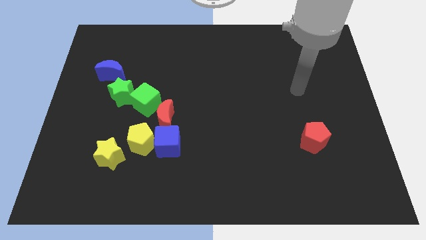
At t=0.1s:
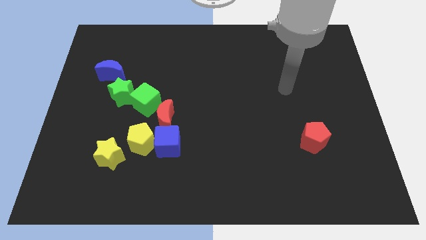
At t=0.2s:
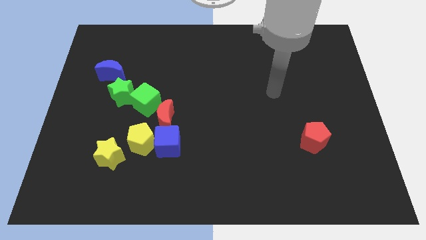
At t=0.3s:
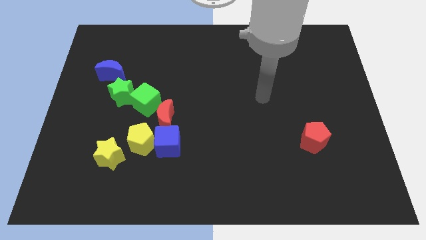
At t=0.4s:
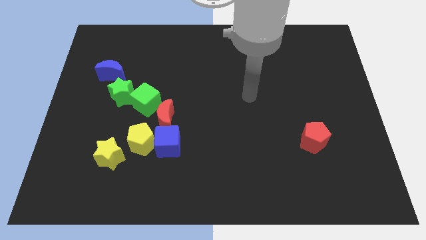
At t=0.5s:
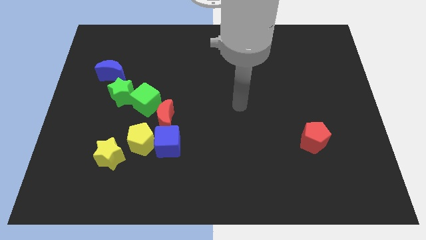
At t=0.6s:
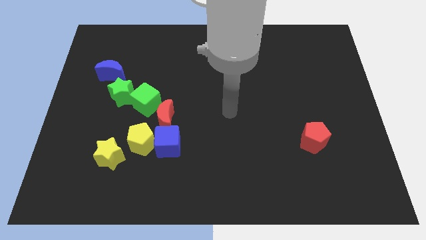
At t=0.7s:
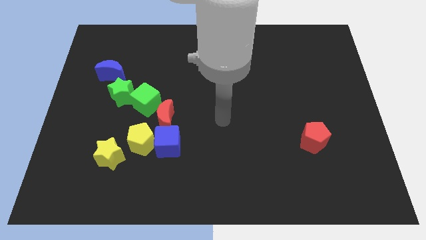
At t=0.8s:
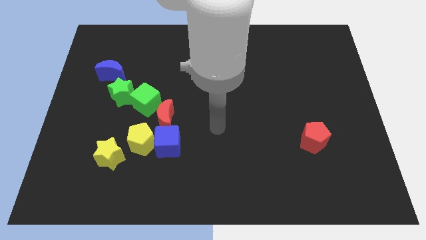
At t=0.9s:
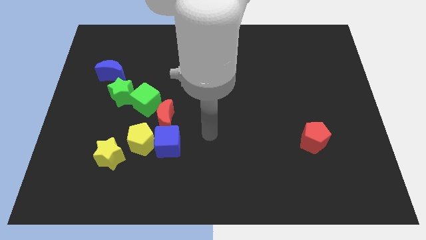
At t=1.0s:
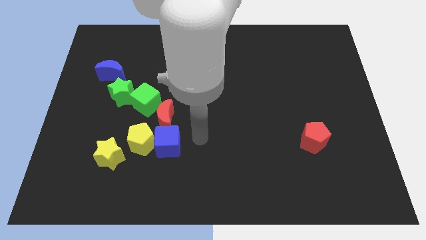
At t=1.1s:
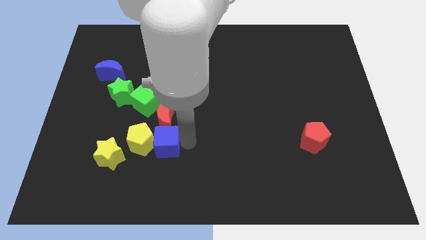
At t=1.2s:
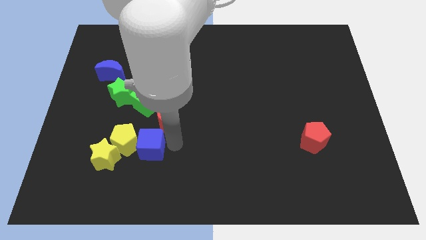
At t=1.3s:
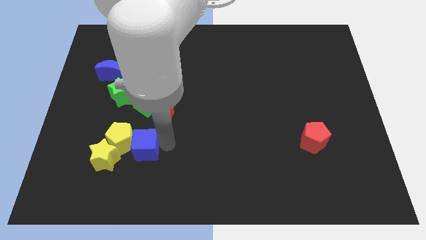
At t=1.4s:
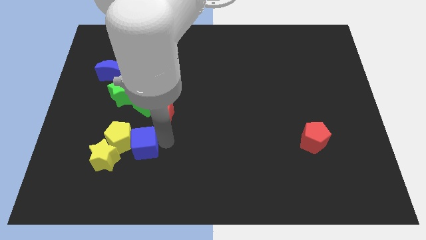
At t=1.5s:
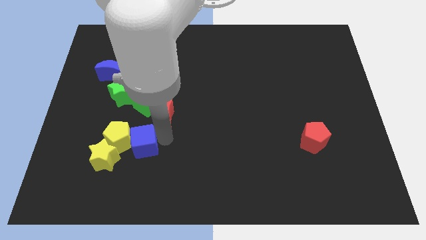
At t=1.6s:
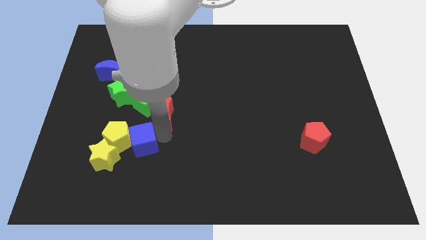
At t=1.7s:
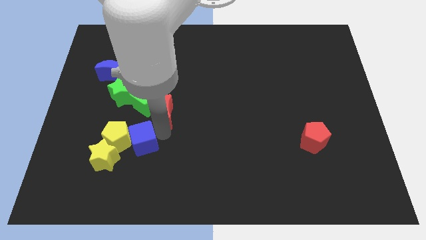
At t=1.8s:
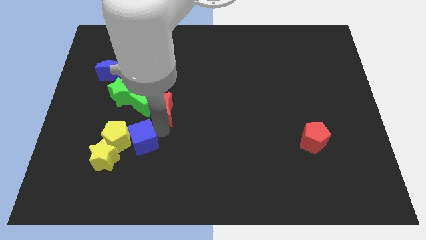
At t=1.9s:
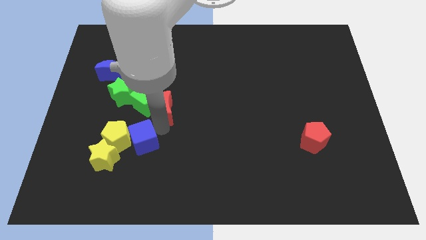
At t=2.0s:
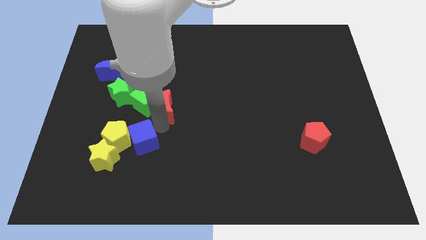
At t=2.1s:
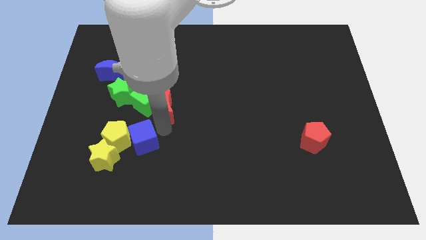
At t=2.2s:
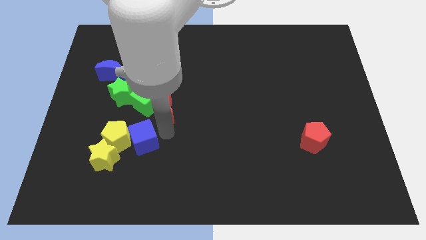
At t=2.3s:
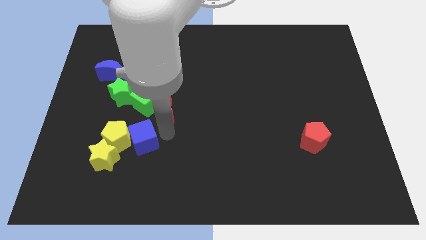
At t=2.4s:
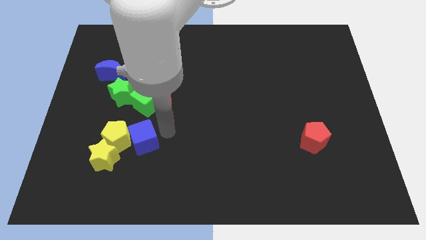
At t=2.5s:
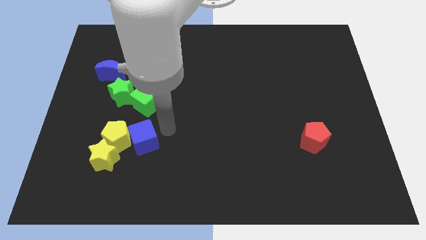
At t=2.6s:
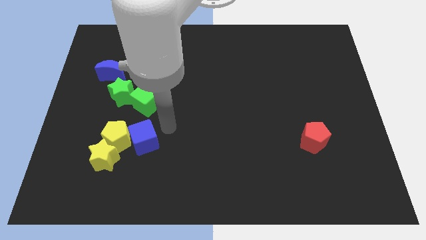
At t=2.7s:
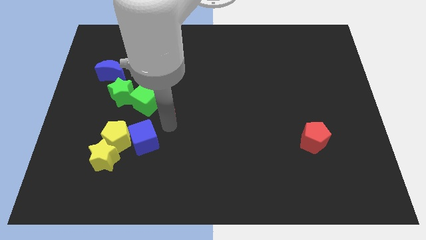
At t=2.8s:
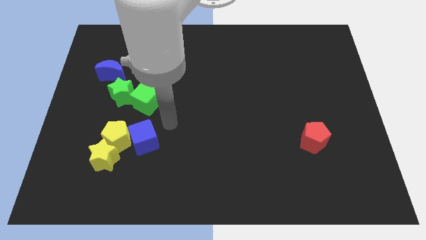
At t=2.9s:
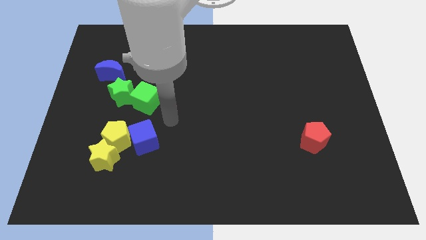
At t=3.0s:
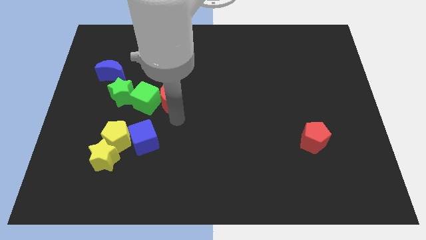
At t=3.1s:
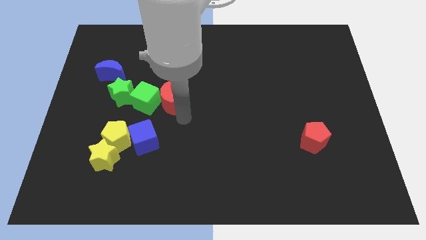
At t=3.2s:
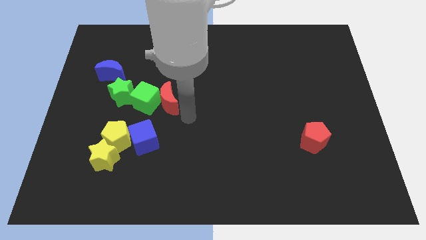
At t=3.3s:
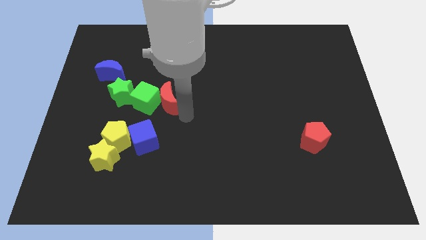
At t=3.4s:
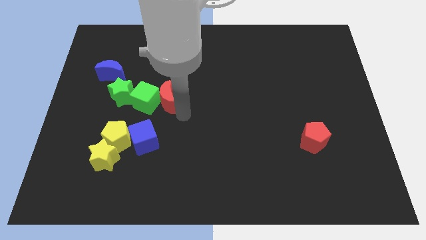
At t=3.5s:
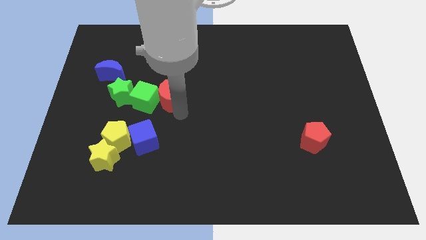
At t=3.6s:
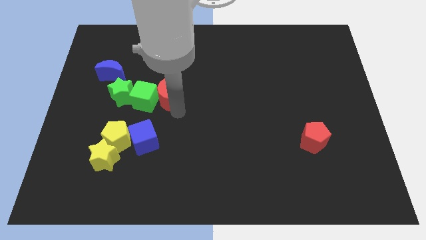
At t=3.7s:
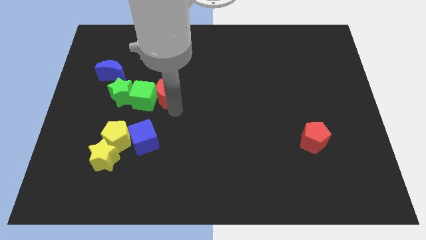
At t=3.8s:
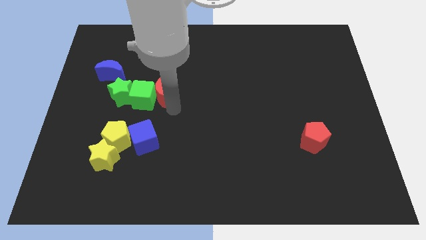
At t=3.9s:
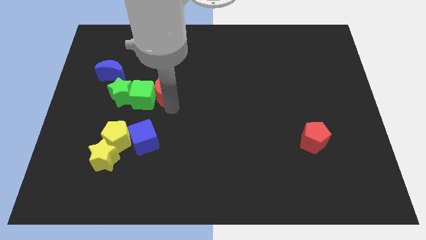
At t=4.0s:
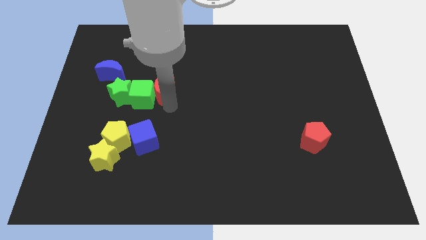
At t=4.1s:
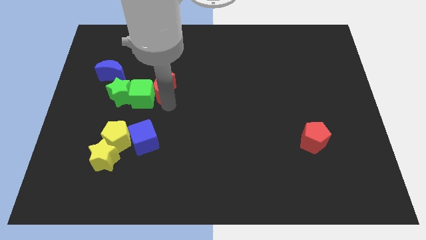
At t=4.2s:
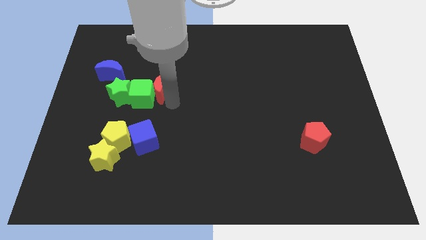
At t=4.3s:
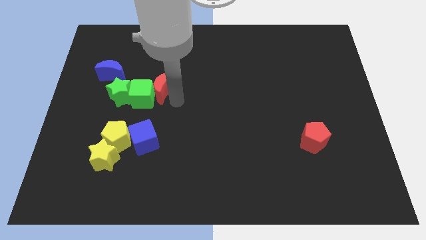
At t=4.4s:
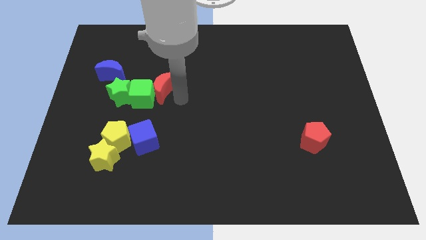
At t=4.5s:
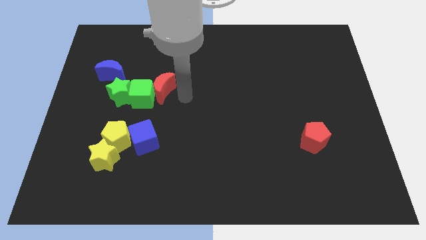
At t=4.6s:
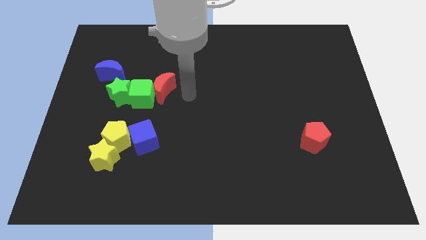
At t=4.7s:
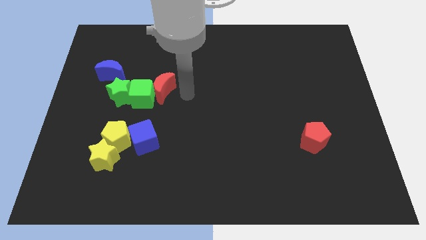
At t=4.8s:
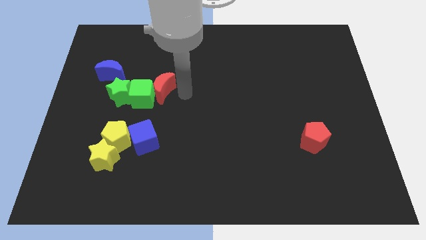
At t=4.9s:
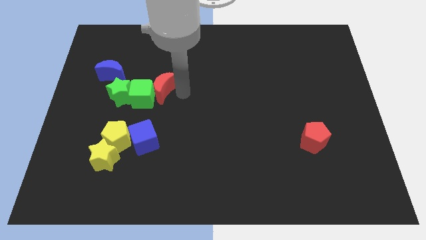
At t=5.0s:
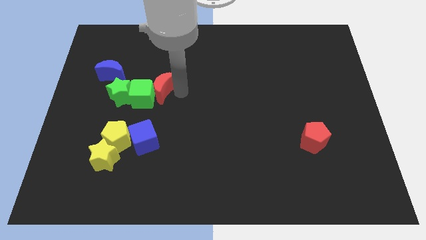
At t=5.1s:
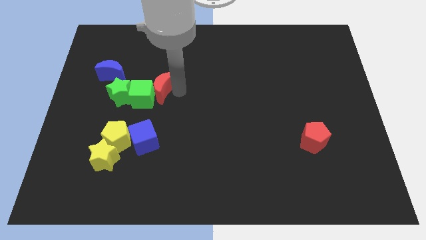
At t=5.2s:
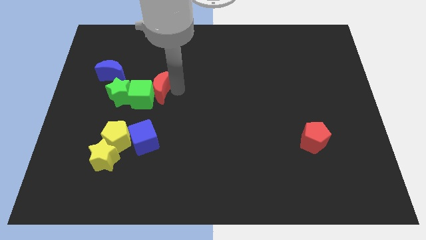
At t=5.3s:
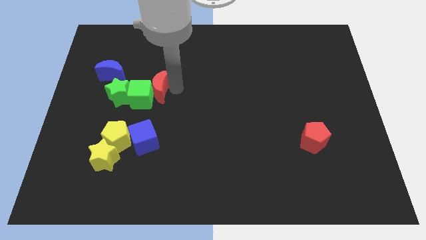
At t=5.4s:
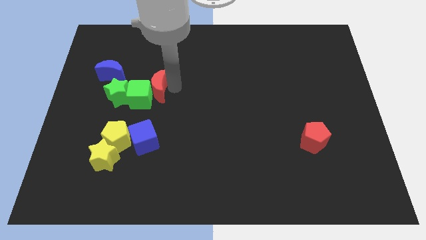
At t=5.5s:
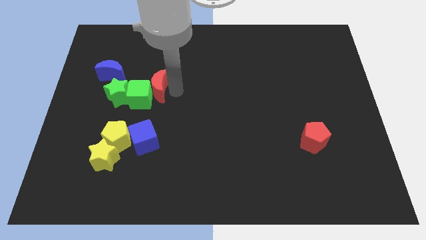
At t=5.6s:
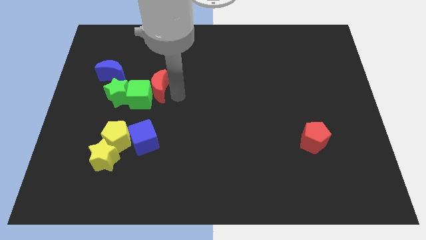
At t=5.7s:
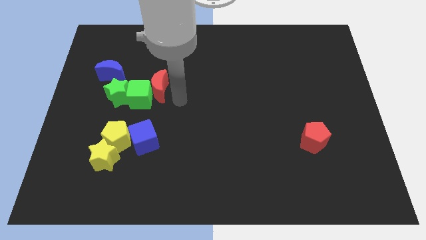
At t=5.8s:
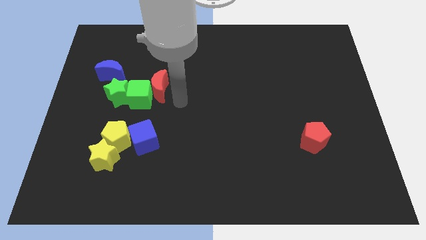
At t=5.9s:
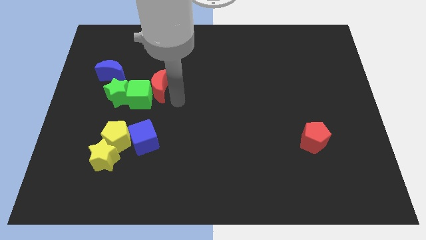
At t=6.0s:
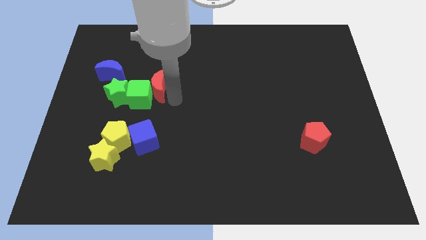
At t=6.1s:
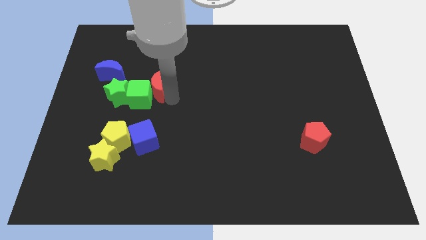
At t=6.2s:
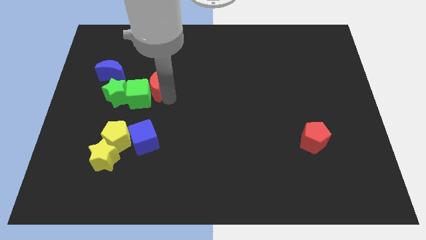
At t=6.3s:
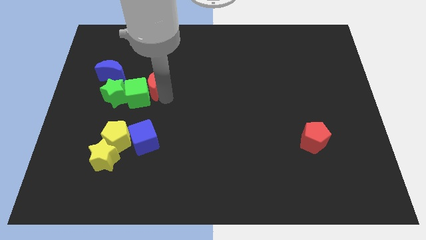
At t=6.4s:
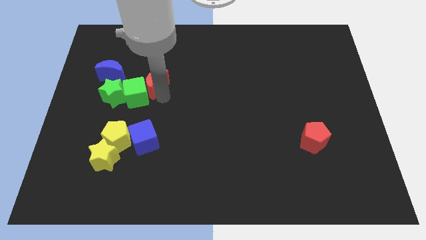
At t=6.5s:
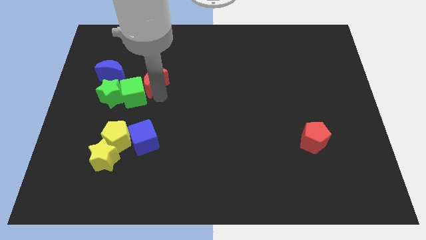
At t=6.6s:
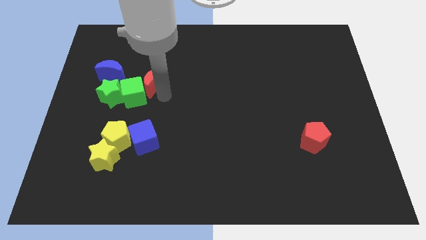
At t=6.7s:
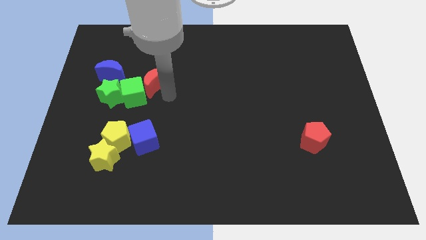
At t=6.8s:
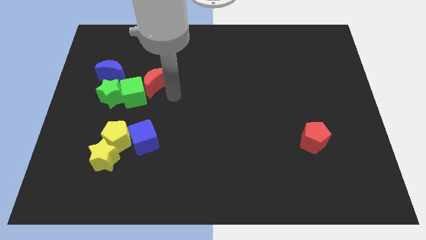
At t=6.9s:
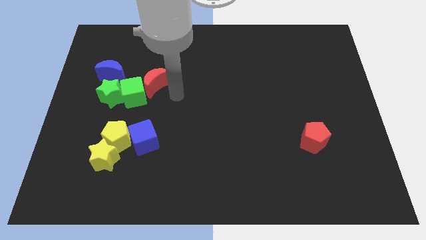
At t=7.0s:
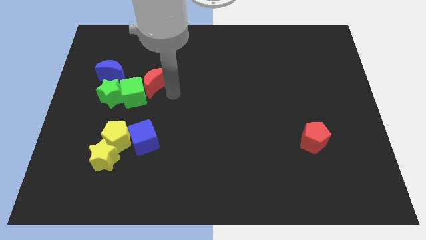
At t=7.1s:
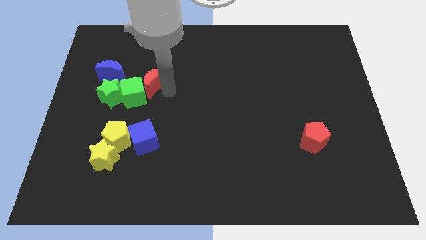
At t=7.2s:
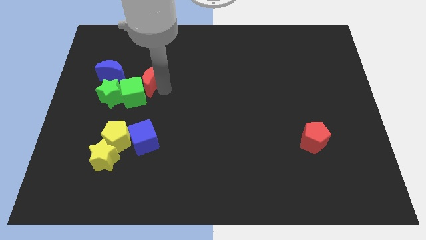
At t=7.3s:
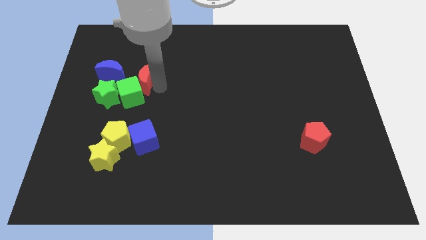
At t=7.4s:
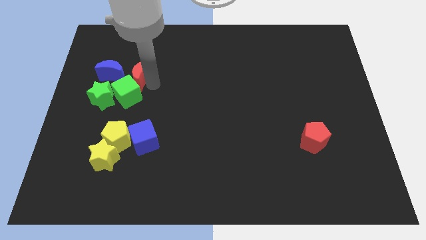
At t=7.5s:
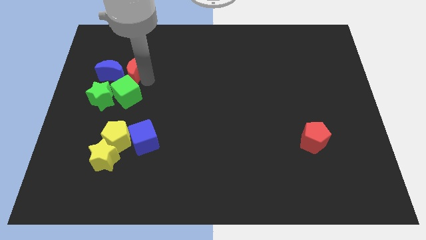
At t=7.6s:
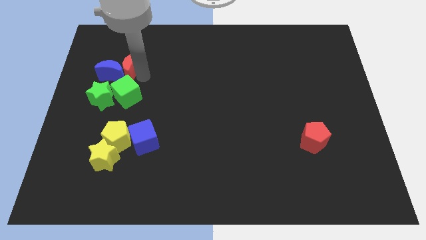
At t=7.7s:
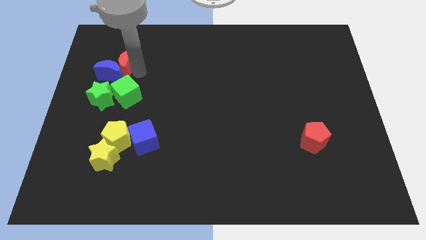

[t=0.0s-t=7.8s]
put the red moon above the green star
